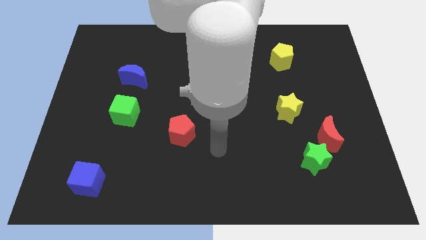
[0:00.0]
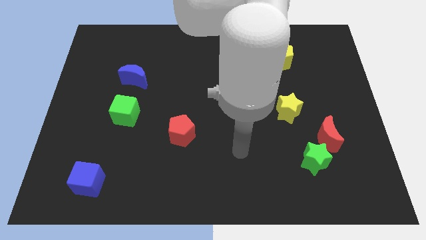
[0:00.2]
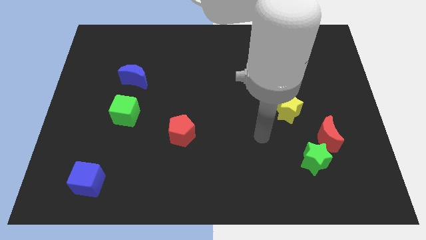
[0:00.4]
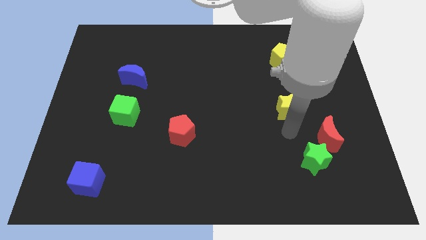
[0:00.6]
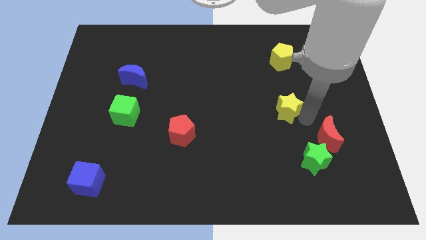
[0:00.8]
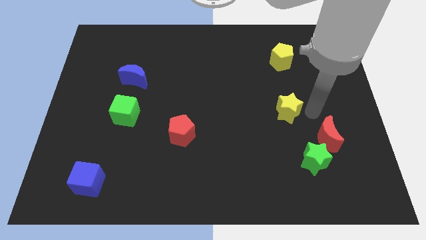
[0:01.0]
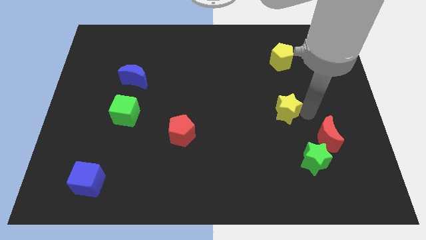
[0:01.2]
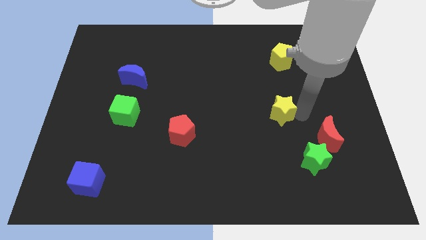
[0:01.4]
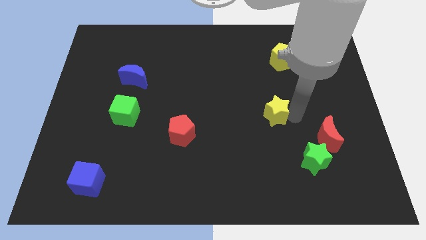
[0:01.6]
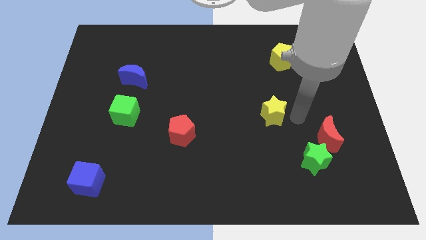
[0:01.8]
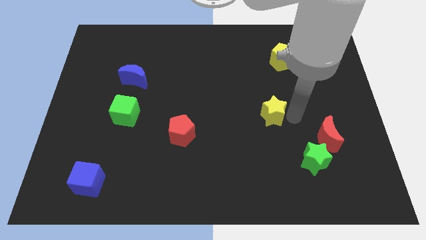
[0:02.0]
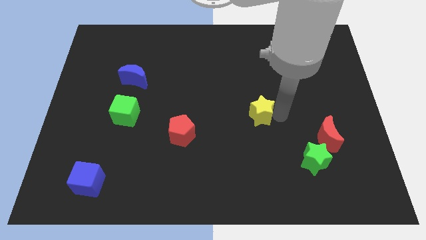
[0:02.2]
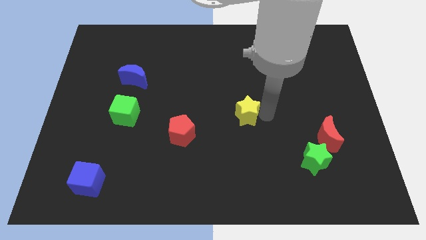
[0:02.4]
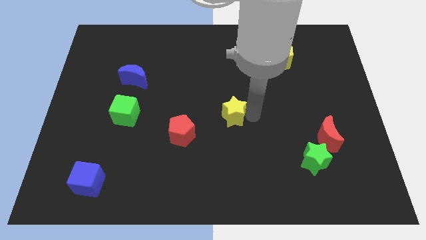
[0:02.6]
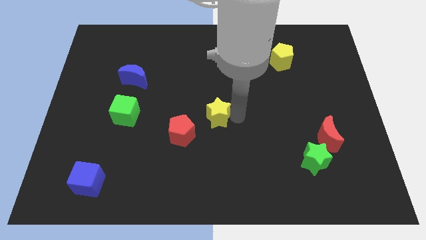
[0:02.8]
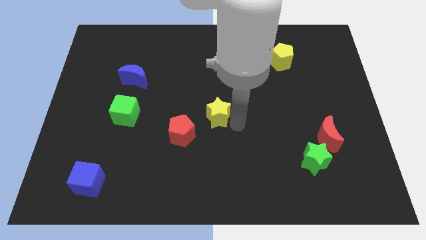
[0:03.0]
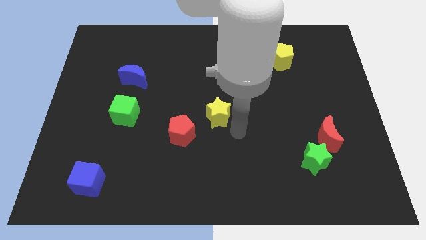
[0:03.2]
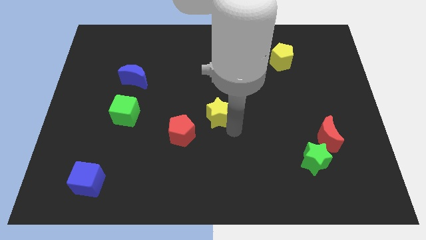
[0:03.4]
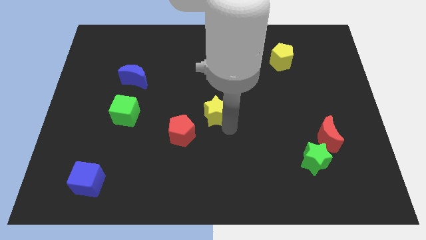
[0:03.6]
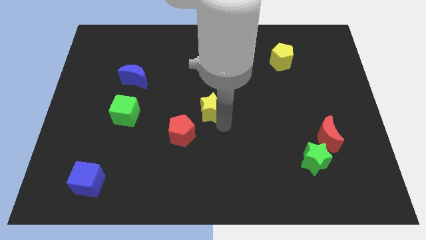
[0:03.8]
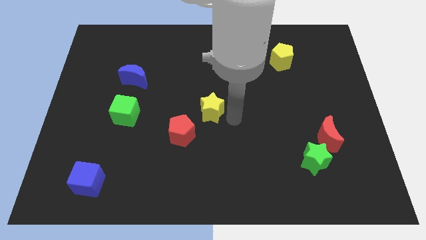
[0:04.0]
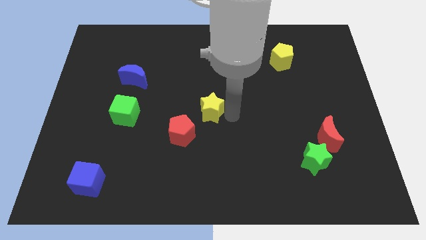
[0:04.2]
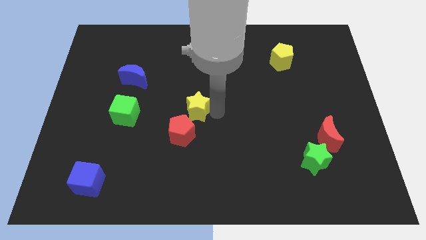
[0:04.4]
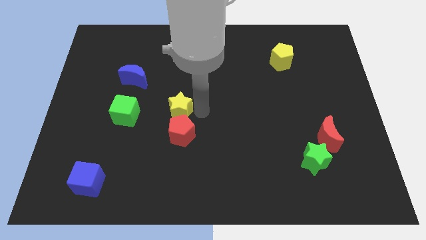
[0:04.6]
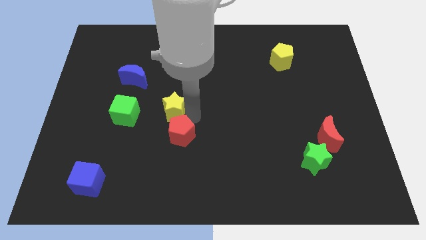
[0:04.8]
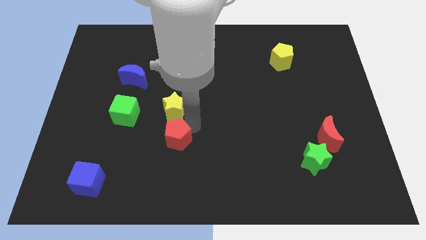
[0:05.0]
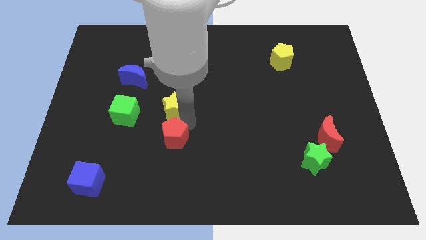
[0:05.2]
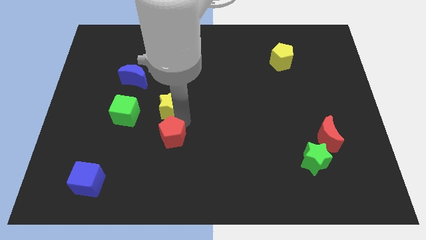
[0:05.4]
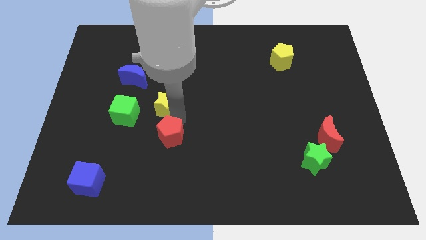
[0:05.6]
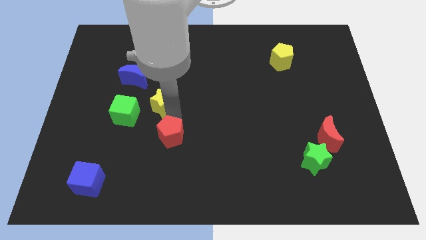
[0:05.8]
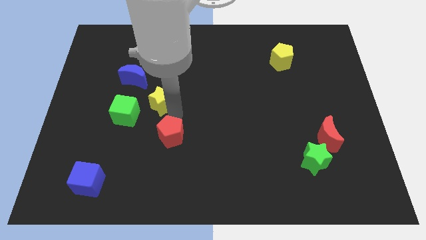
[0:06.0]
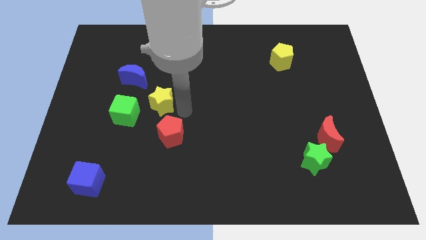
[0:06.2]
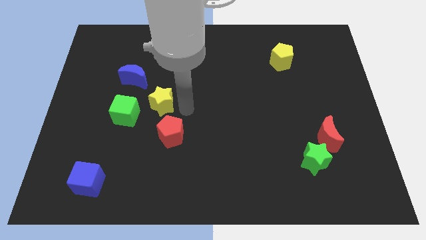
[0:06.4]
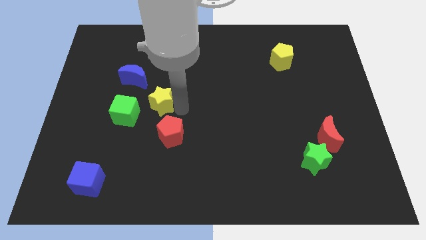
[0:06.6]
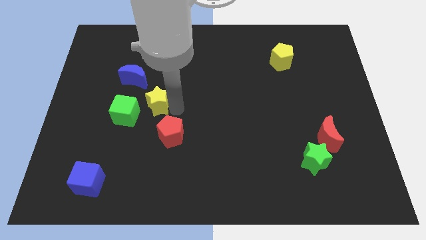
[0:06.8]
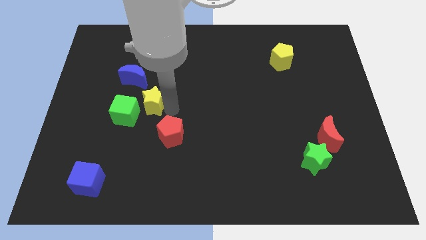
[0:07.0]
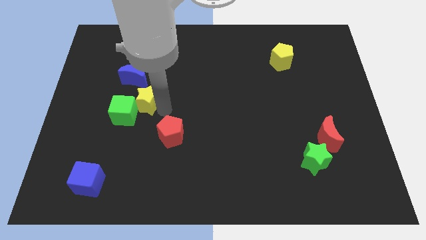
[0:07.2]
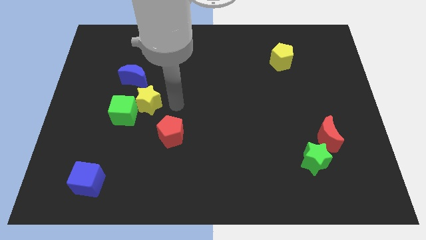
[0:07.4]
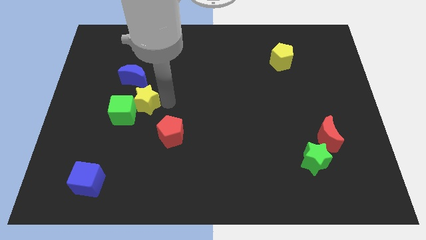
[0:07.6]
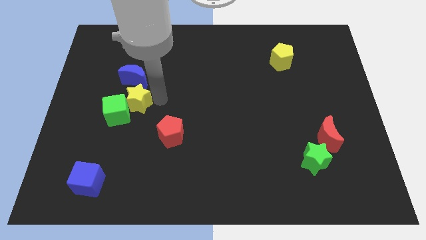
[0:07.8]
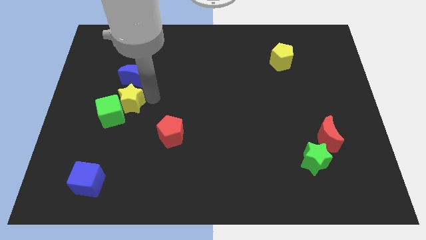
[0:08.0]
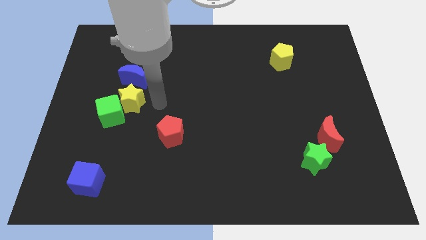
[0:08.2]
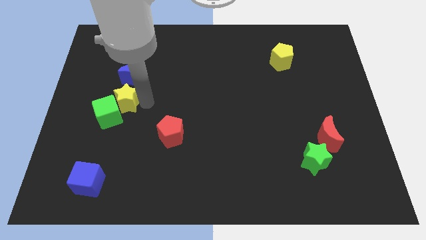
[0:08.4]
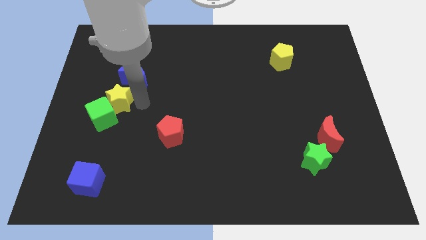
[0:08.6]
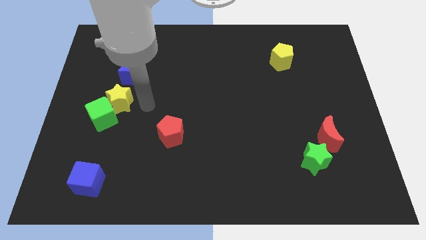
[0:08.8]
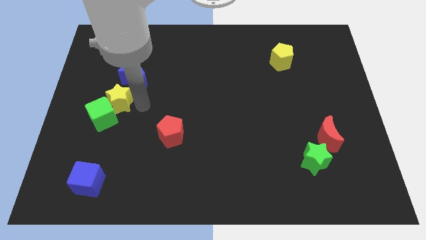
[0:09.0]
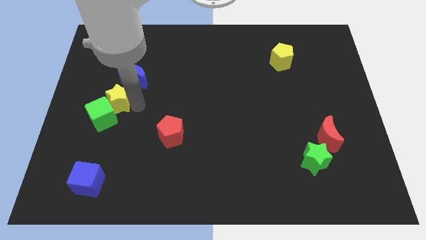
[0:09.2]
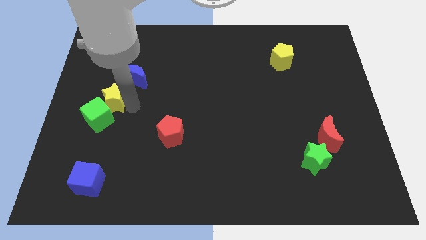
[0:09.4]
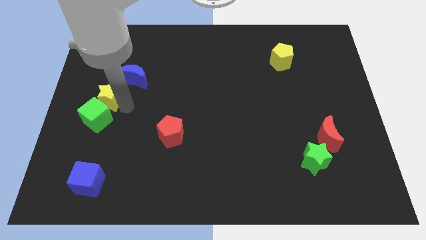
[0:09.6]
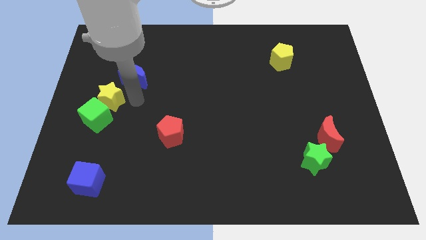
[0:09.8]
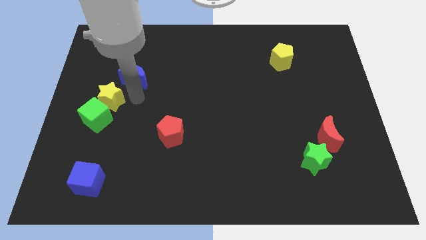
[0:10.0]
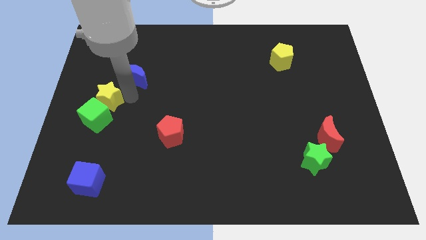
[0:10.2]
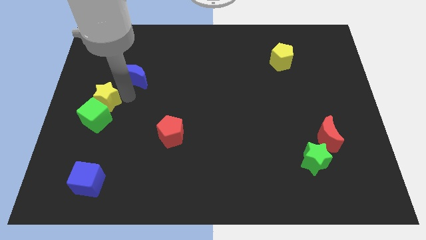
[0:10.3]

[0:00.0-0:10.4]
put the yellow star to the center left

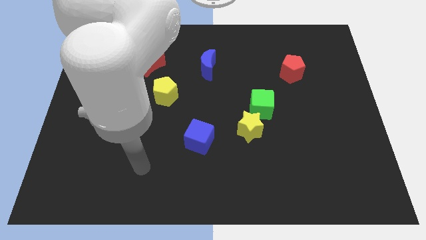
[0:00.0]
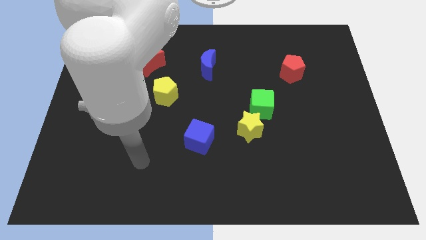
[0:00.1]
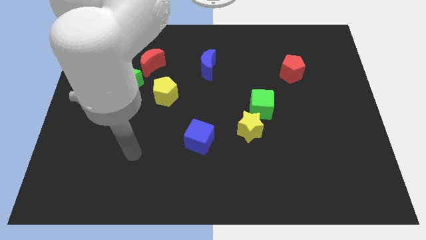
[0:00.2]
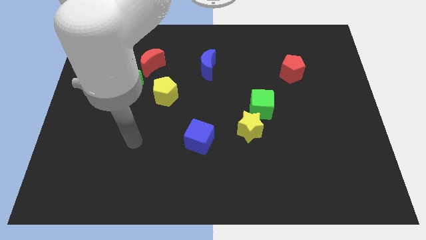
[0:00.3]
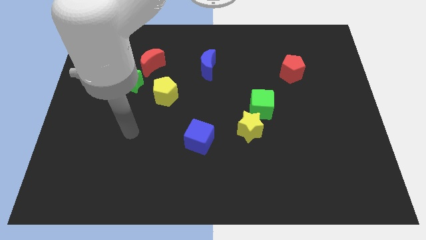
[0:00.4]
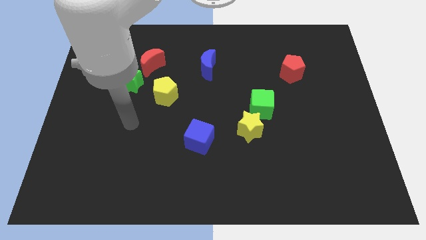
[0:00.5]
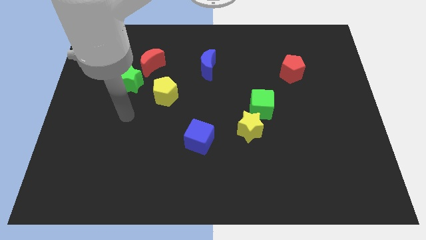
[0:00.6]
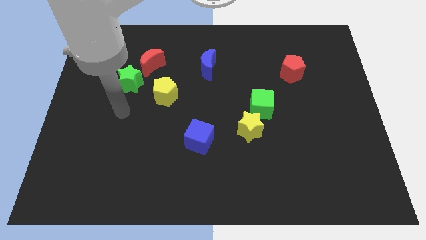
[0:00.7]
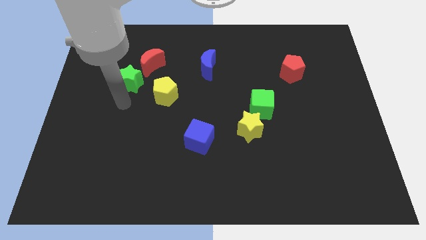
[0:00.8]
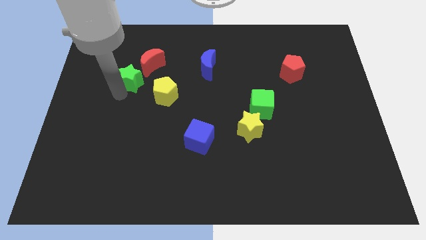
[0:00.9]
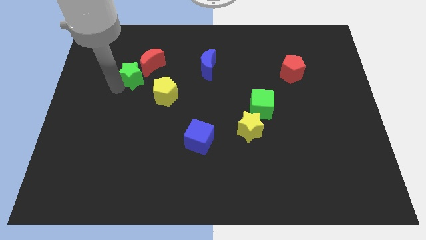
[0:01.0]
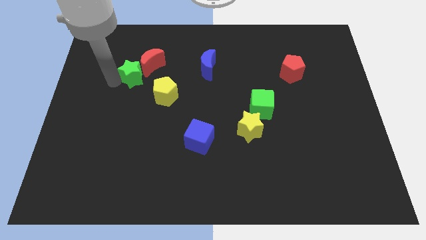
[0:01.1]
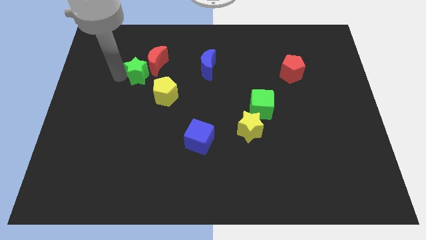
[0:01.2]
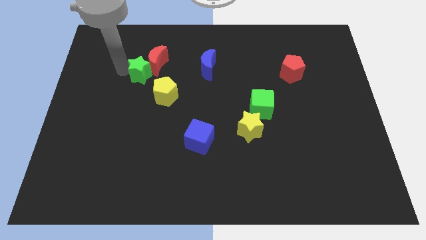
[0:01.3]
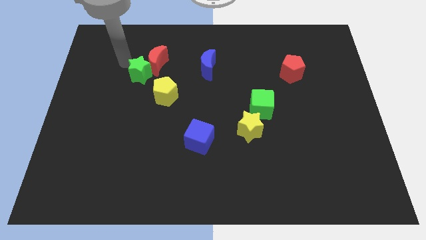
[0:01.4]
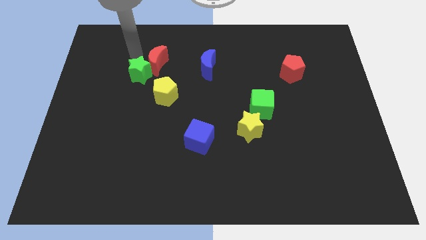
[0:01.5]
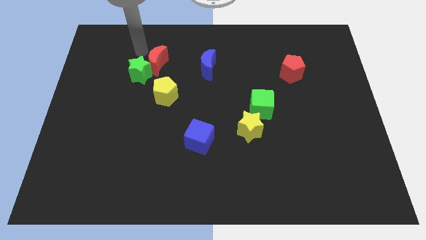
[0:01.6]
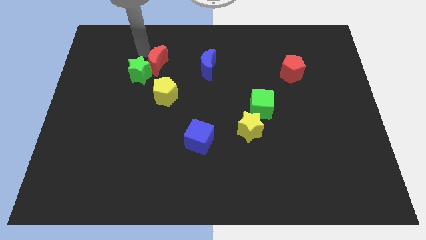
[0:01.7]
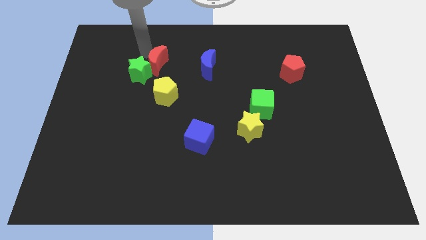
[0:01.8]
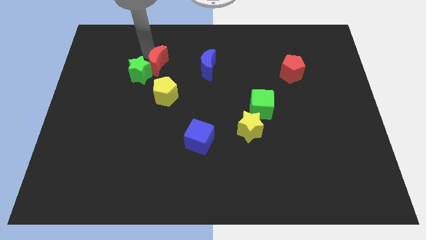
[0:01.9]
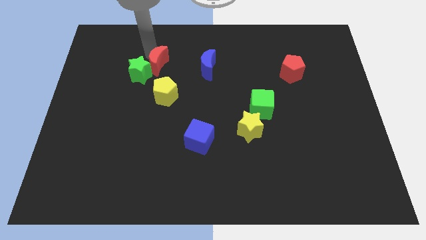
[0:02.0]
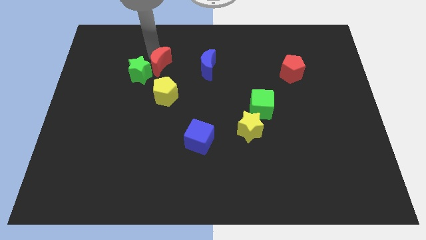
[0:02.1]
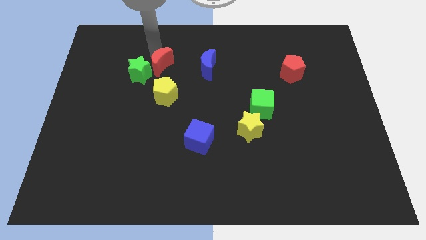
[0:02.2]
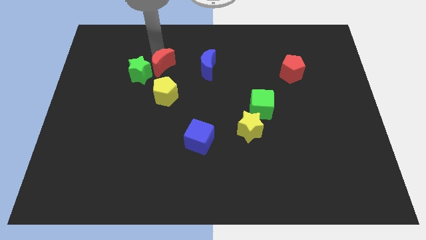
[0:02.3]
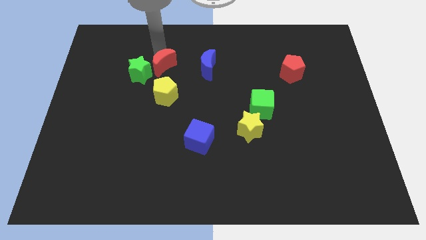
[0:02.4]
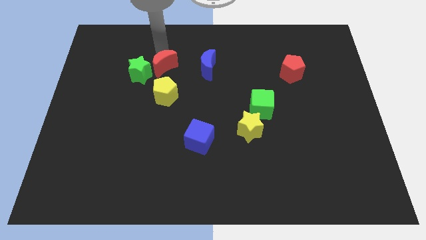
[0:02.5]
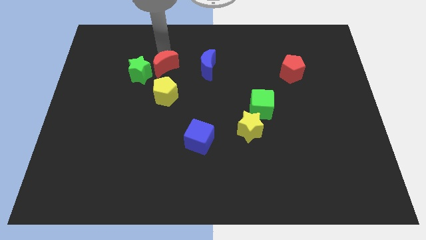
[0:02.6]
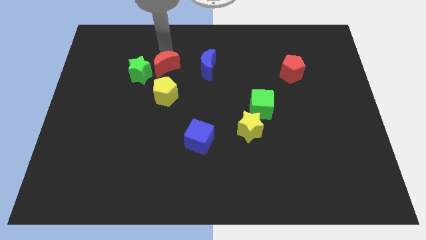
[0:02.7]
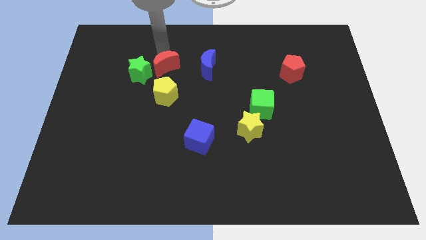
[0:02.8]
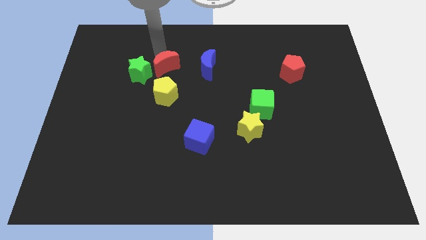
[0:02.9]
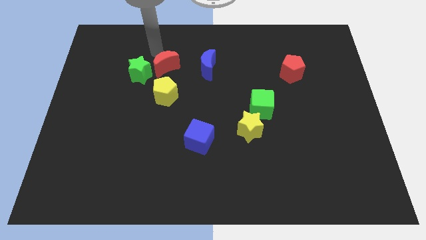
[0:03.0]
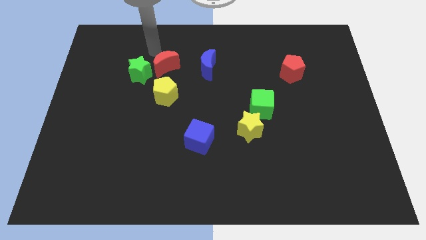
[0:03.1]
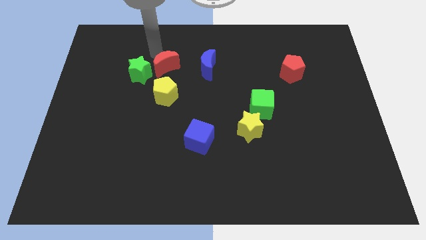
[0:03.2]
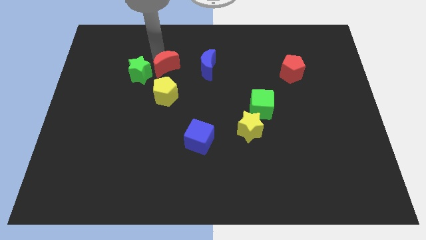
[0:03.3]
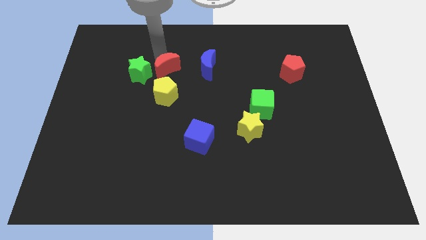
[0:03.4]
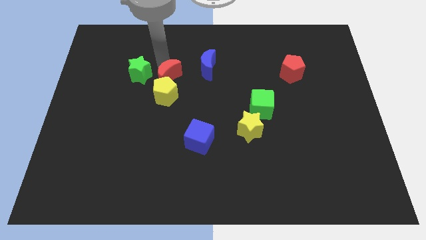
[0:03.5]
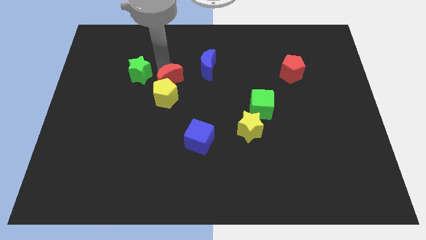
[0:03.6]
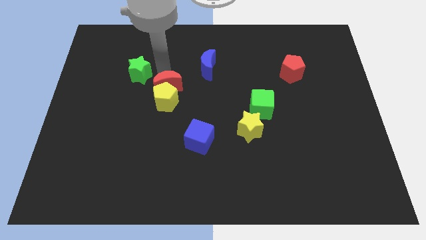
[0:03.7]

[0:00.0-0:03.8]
slide the red moon to the center of the board
